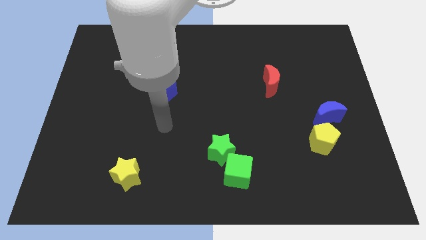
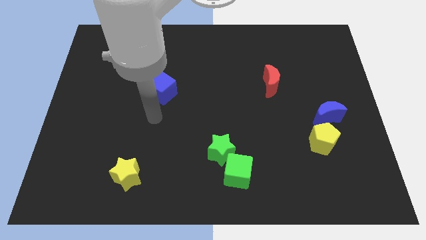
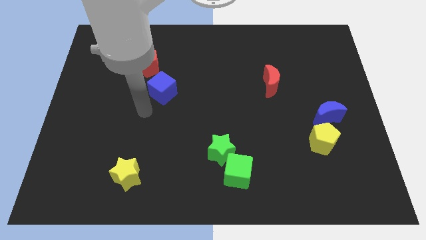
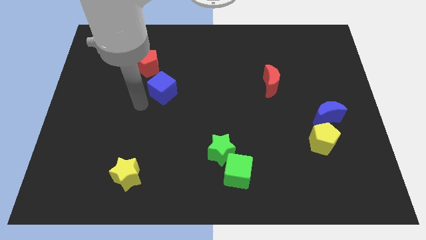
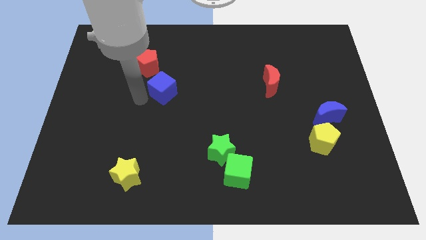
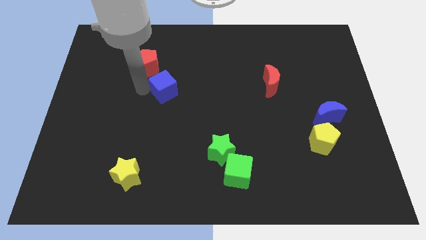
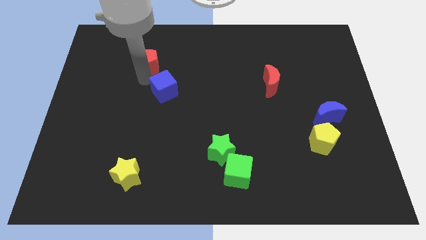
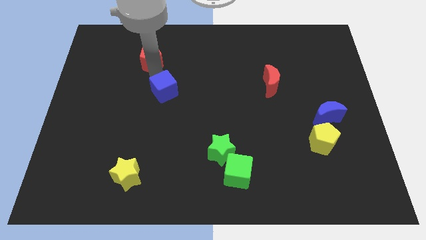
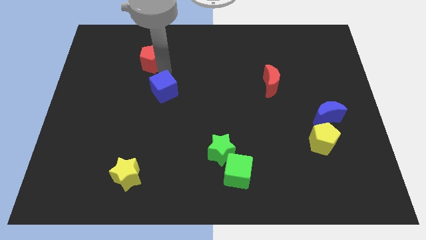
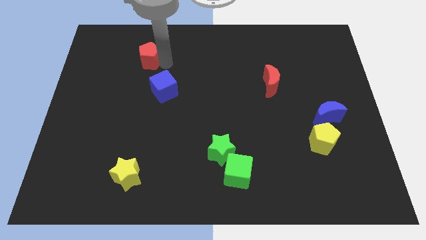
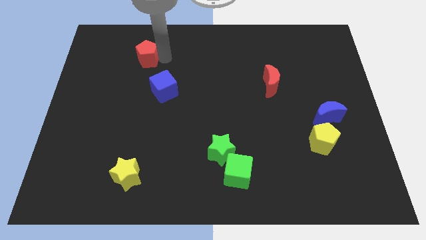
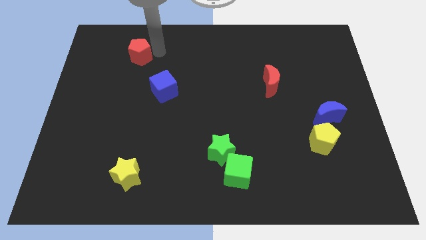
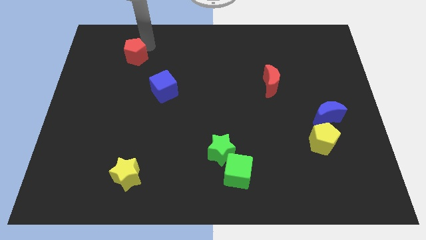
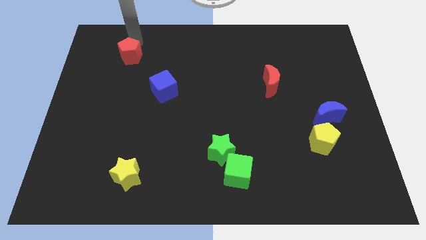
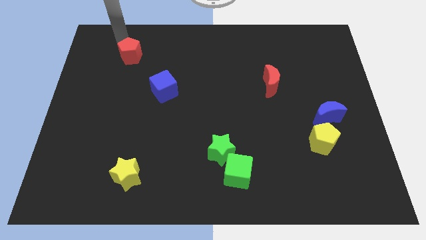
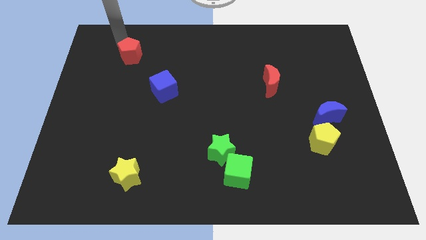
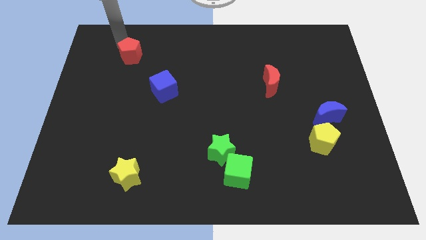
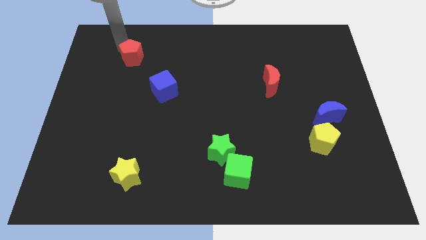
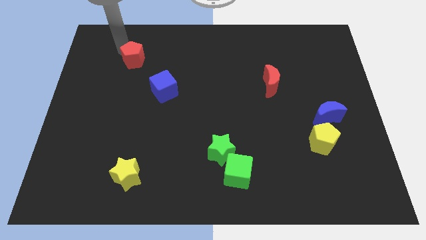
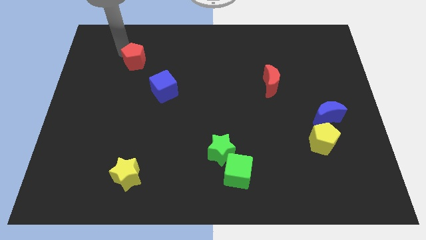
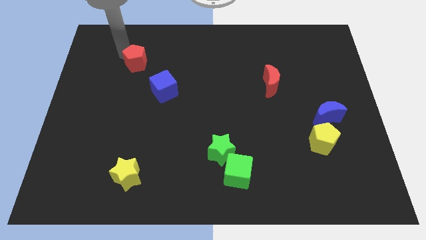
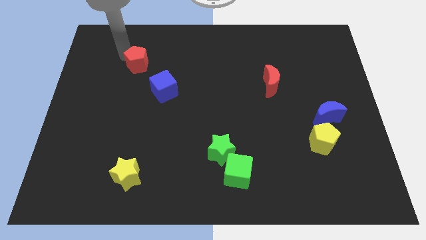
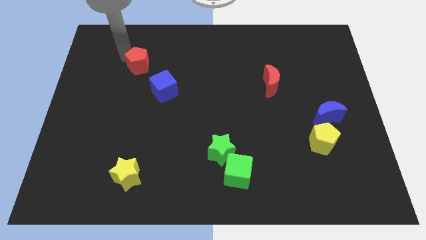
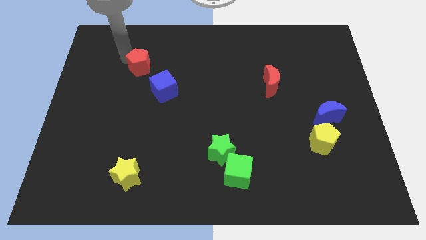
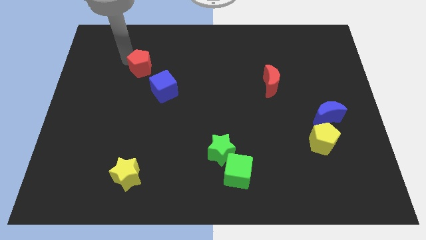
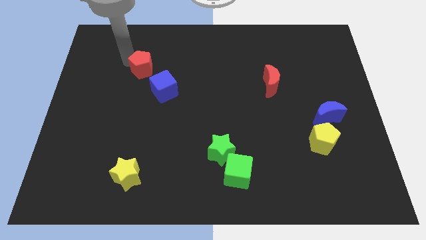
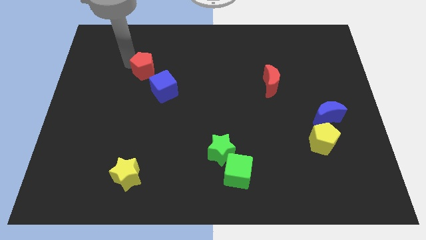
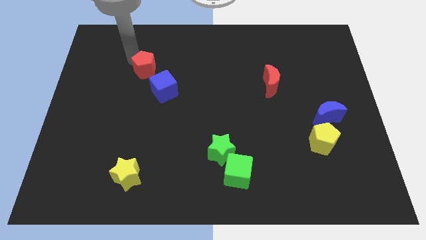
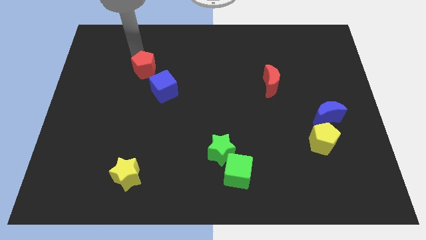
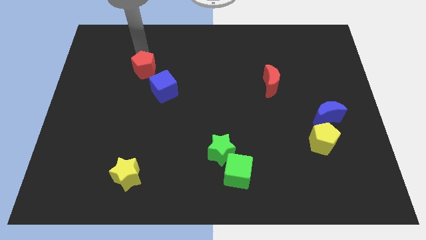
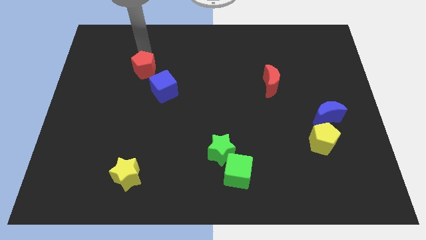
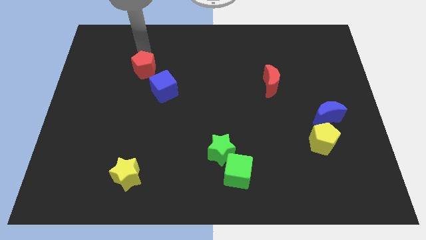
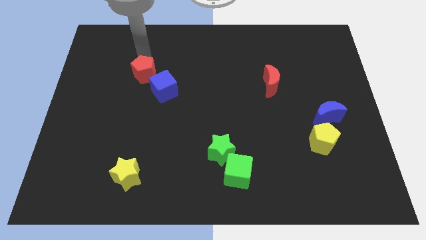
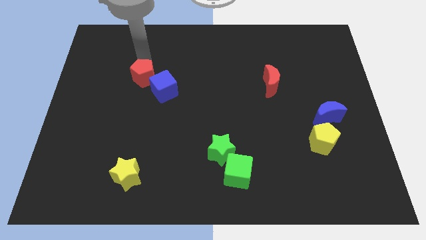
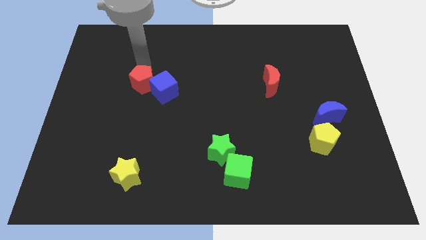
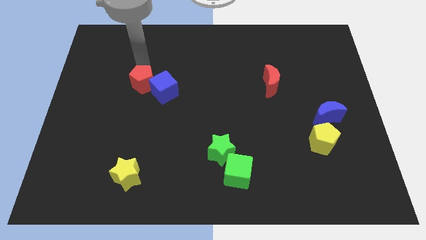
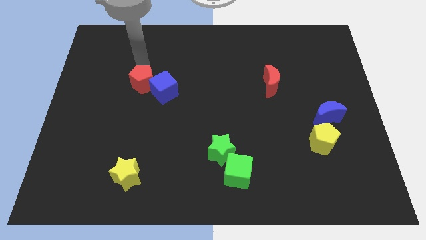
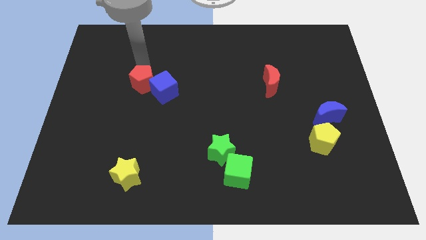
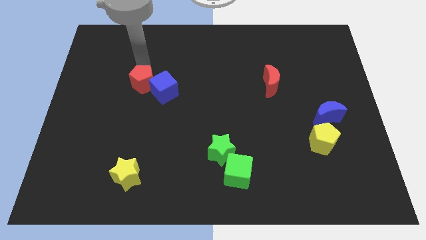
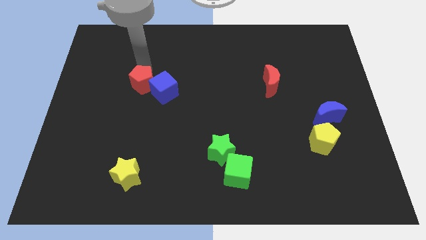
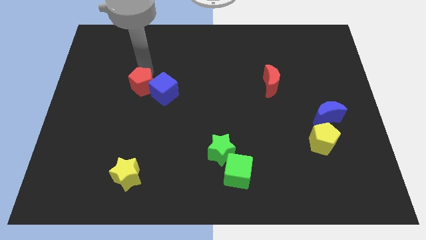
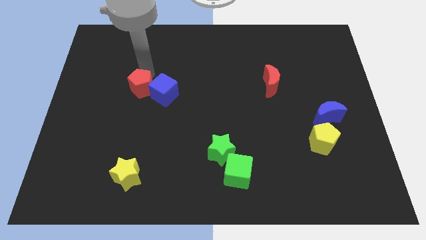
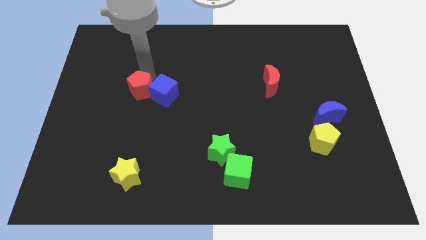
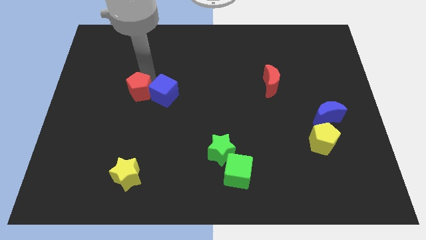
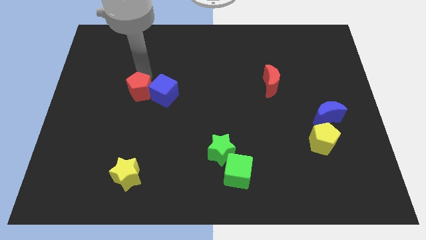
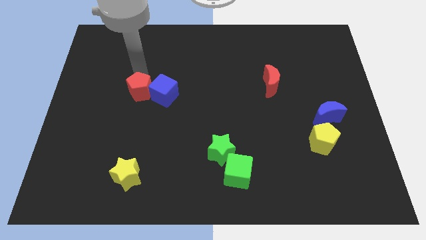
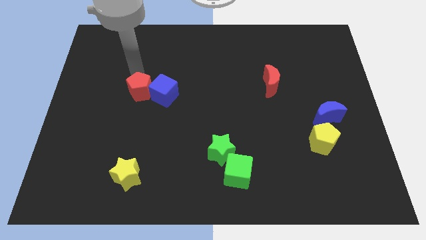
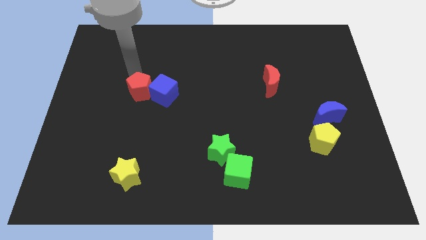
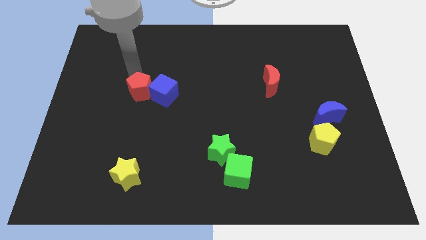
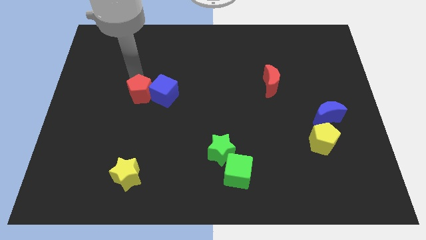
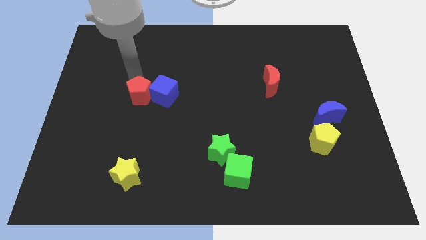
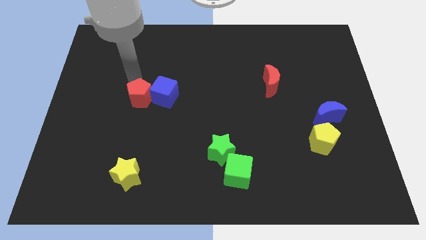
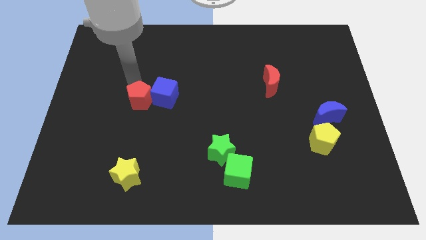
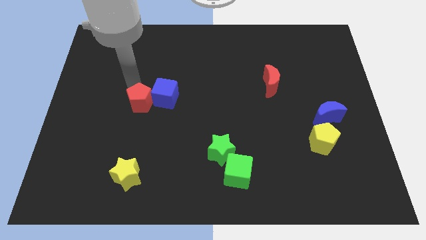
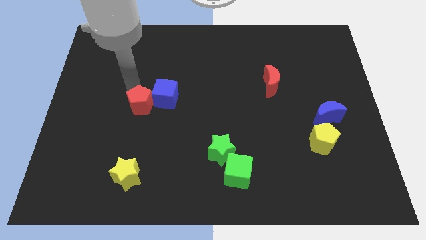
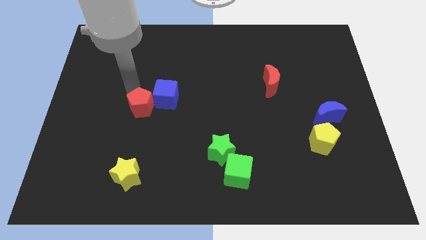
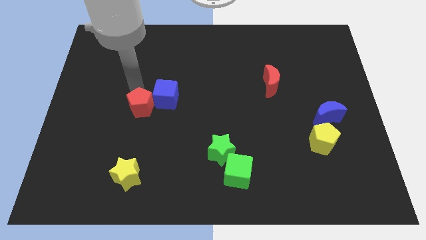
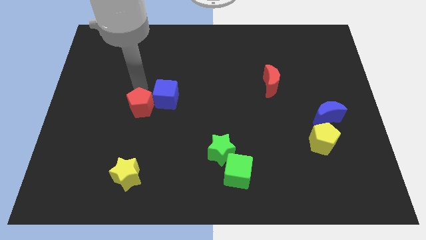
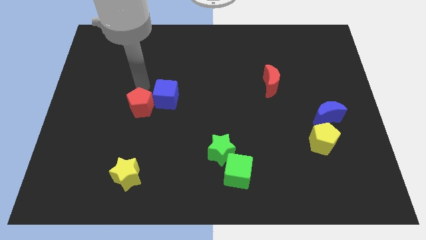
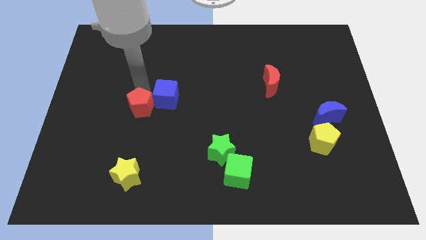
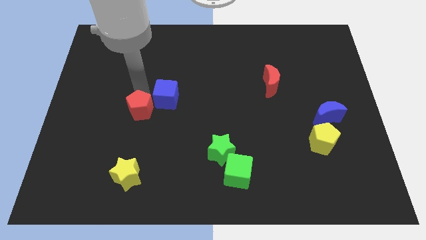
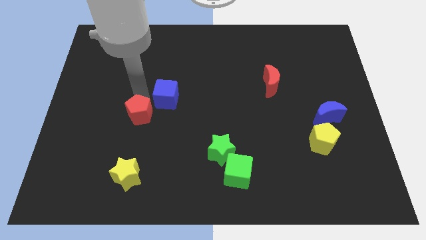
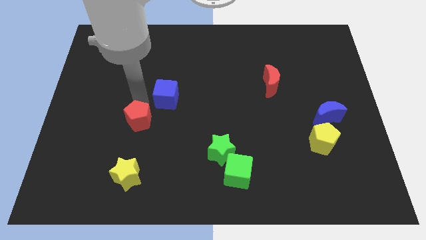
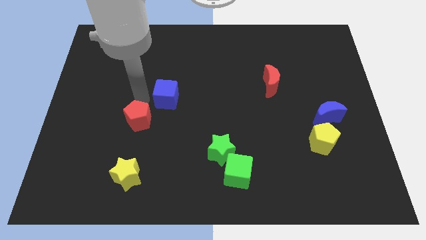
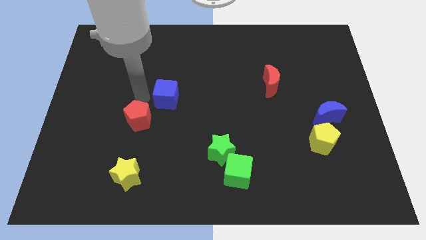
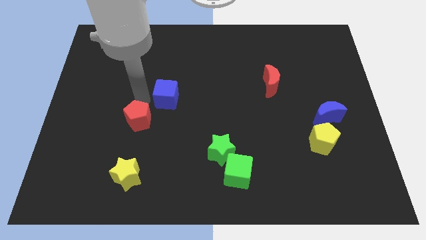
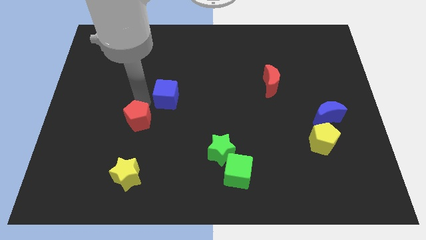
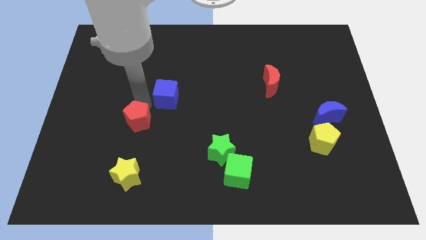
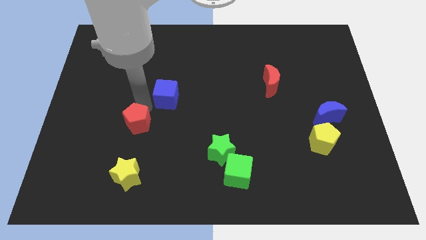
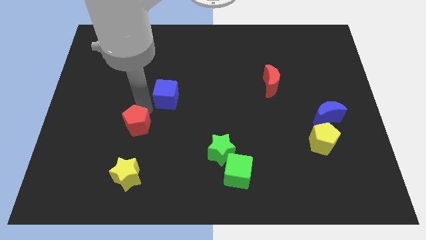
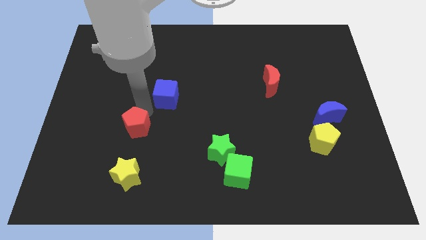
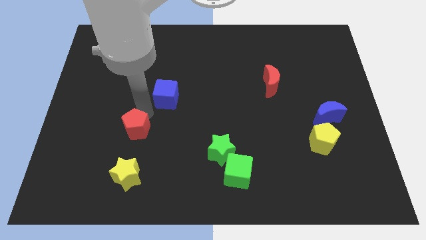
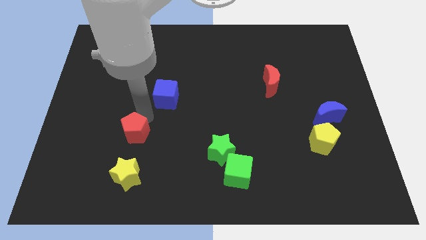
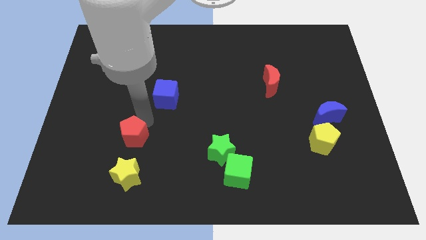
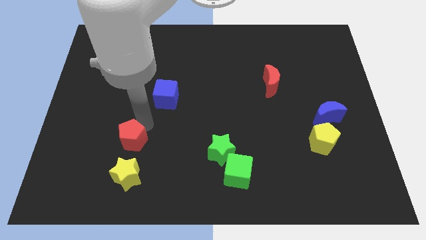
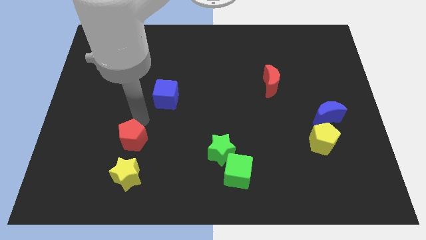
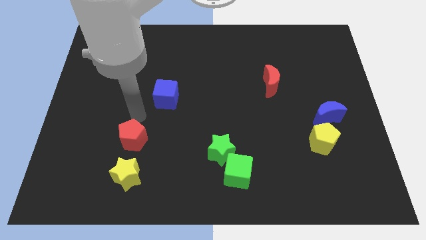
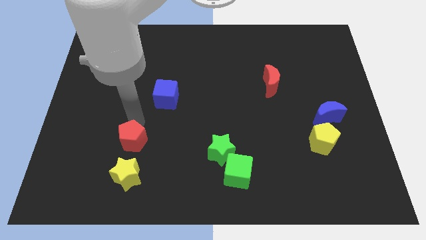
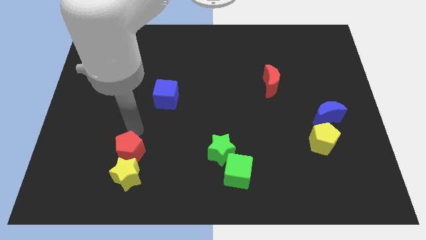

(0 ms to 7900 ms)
put the red pentagon next to the yellow star
